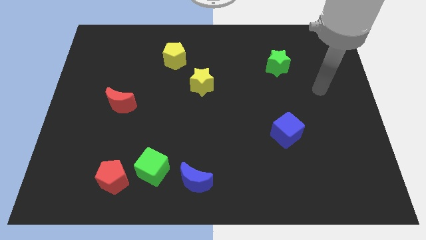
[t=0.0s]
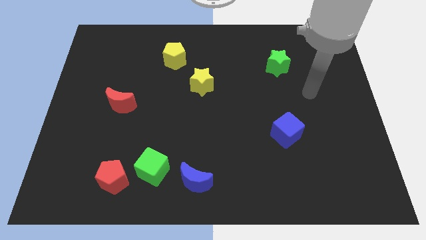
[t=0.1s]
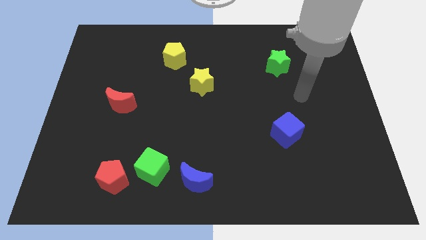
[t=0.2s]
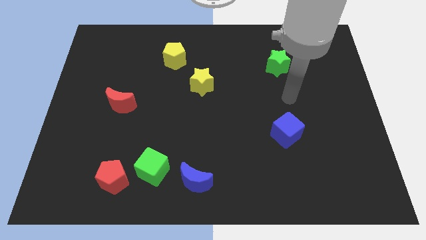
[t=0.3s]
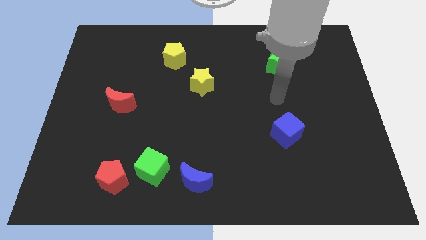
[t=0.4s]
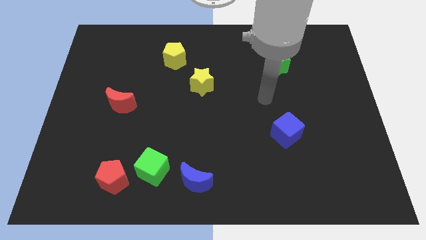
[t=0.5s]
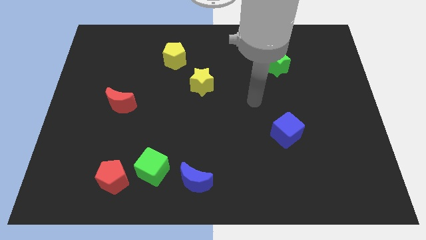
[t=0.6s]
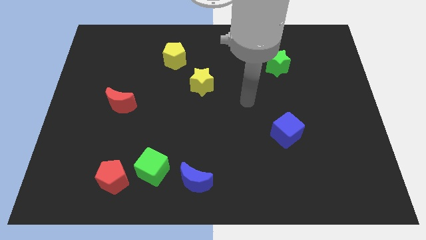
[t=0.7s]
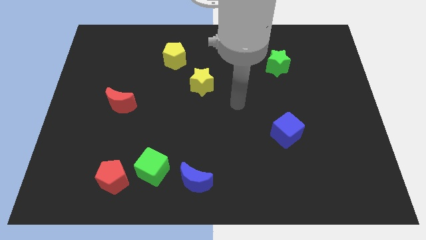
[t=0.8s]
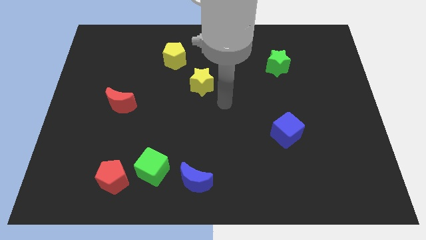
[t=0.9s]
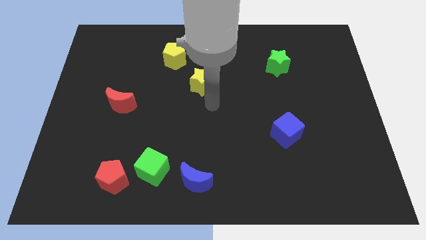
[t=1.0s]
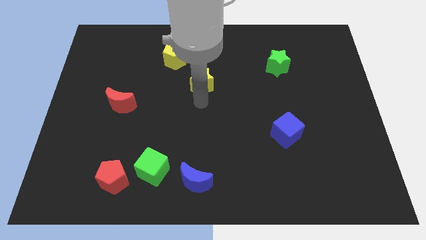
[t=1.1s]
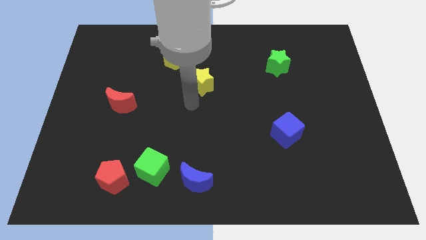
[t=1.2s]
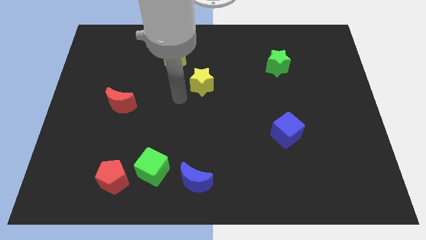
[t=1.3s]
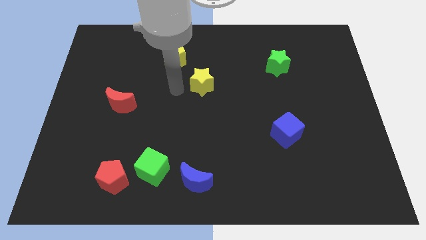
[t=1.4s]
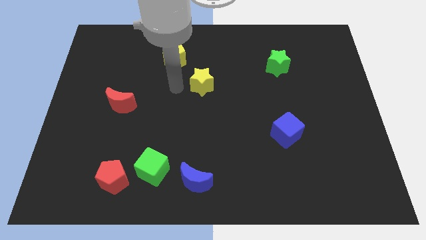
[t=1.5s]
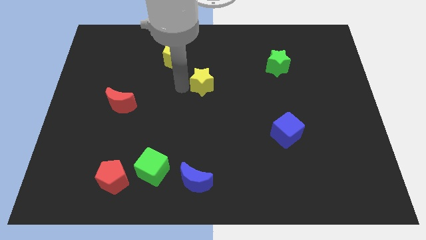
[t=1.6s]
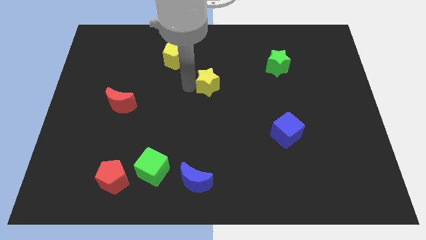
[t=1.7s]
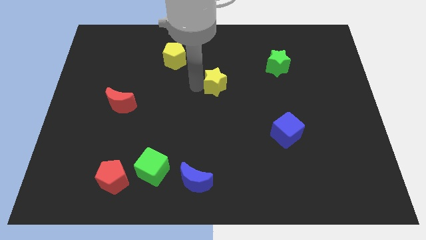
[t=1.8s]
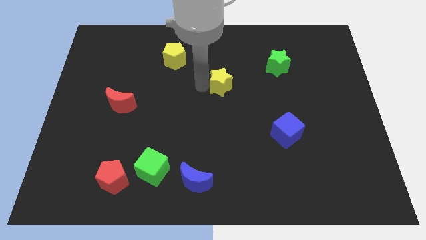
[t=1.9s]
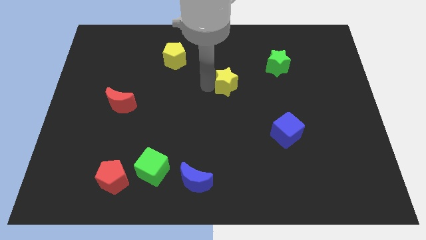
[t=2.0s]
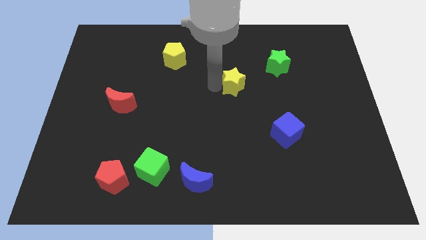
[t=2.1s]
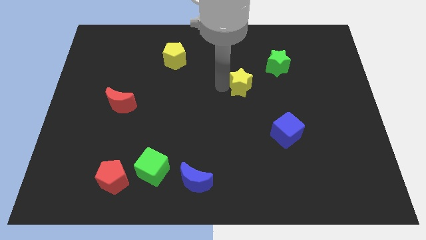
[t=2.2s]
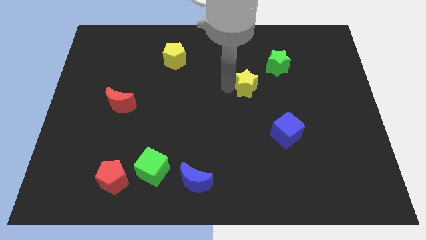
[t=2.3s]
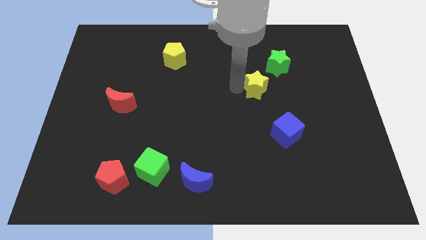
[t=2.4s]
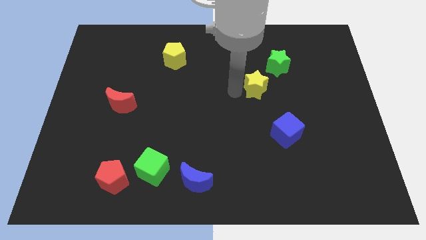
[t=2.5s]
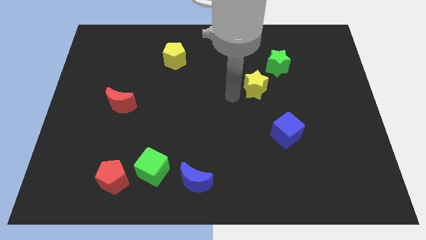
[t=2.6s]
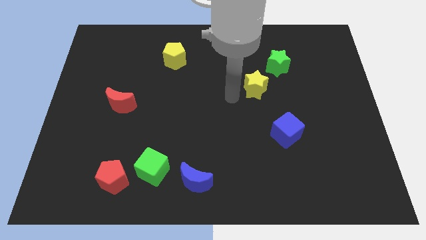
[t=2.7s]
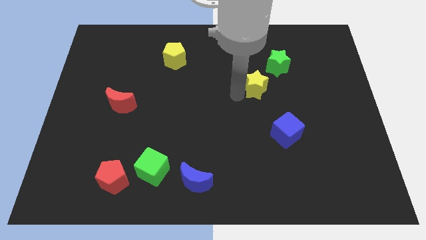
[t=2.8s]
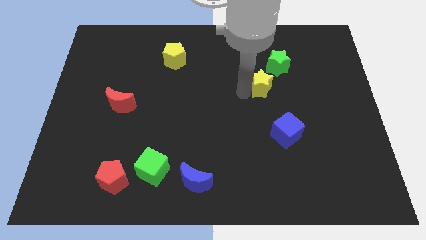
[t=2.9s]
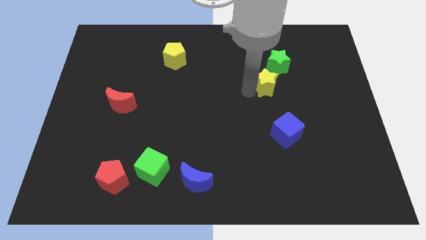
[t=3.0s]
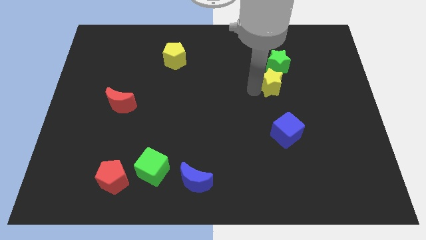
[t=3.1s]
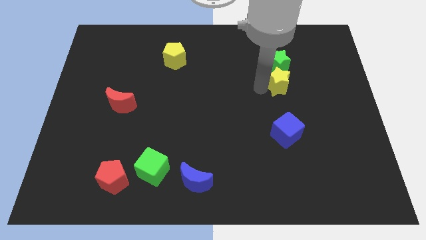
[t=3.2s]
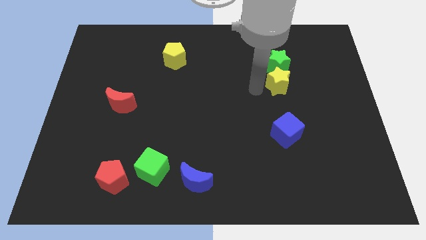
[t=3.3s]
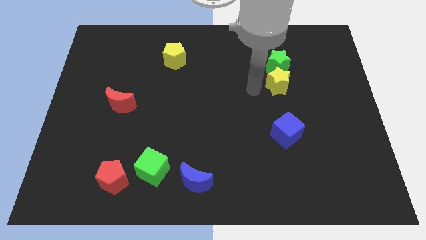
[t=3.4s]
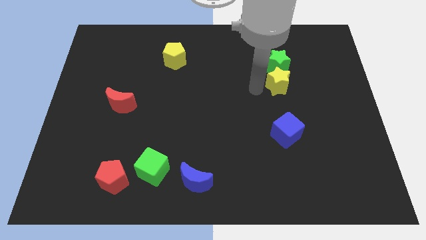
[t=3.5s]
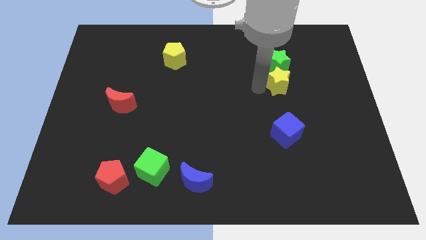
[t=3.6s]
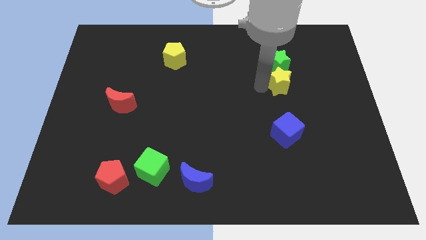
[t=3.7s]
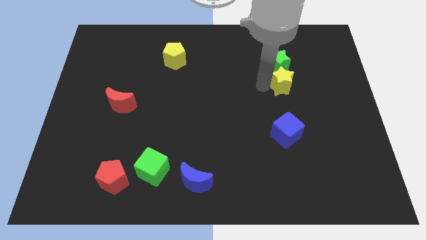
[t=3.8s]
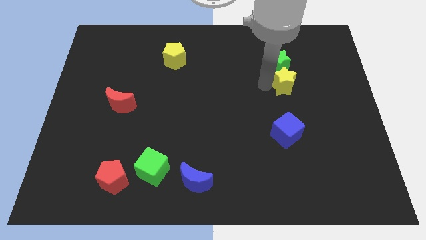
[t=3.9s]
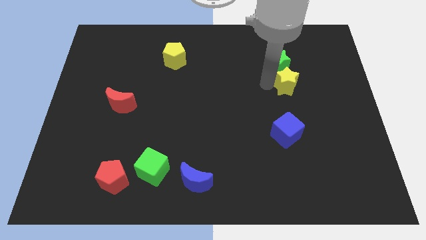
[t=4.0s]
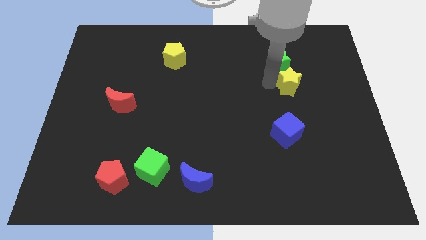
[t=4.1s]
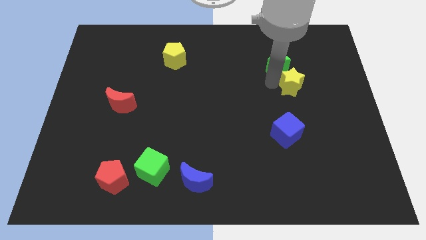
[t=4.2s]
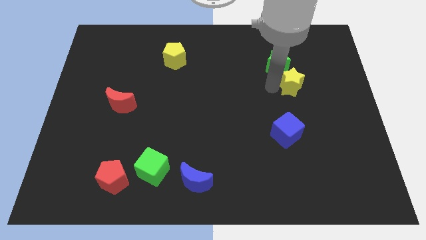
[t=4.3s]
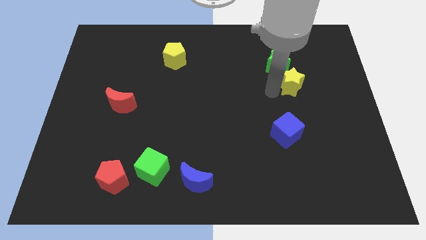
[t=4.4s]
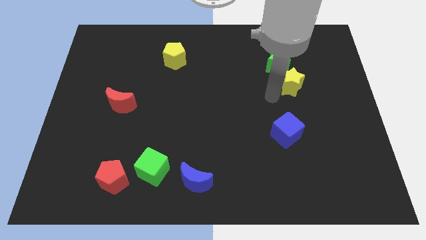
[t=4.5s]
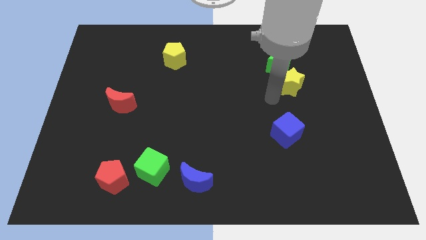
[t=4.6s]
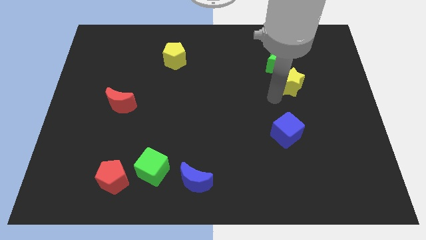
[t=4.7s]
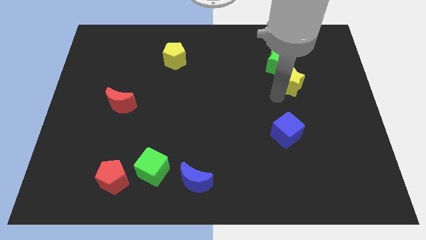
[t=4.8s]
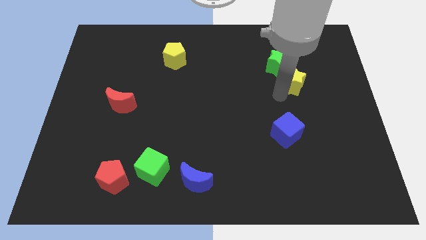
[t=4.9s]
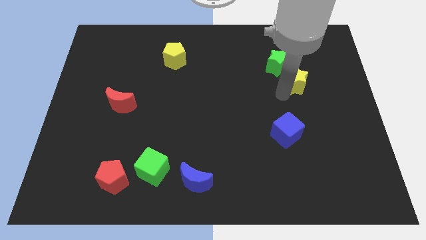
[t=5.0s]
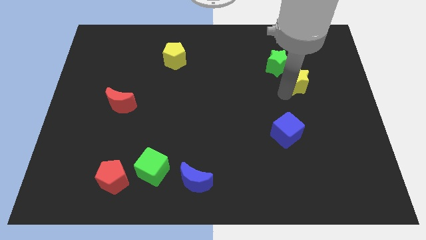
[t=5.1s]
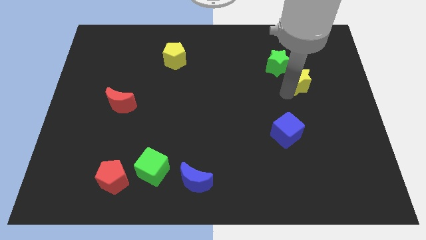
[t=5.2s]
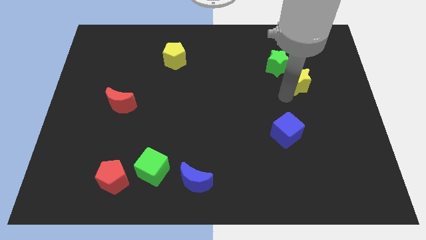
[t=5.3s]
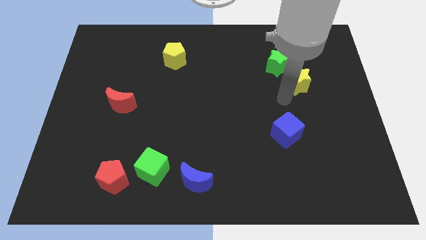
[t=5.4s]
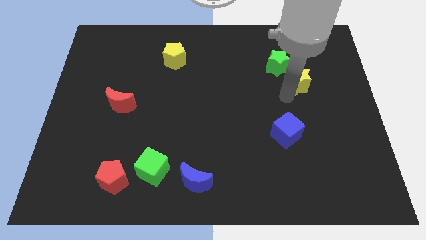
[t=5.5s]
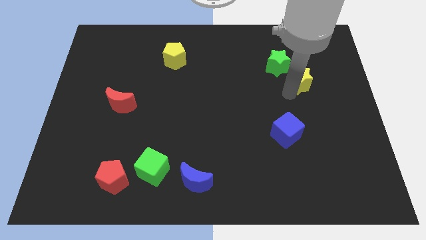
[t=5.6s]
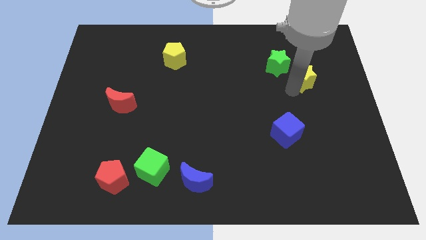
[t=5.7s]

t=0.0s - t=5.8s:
slide the yellow star right of the green star
